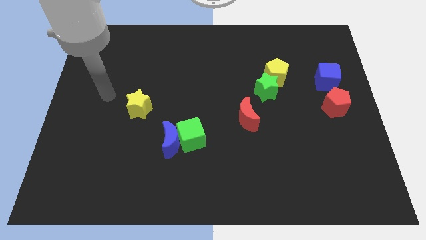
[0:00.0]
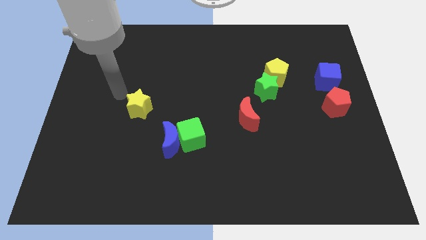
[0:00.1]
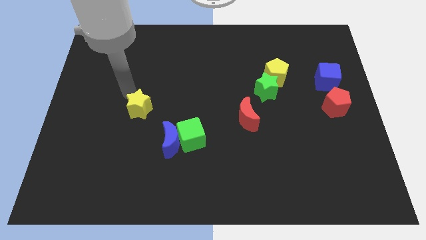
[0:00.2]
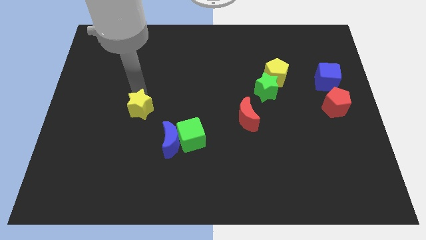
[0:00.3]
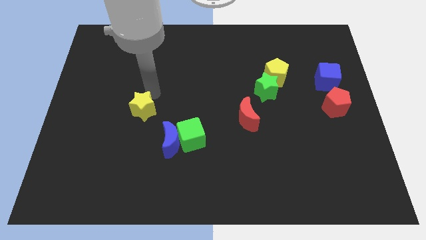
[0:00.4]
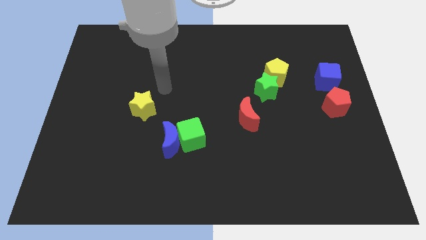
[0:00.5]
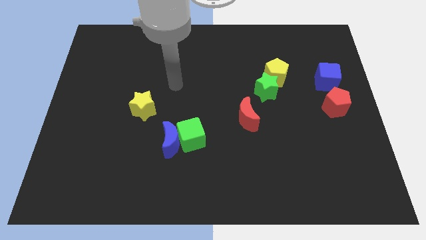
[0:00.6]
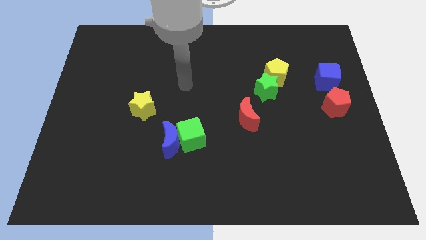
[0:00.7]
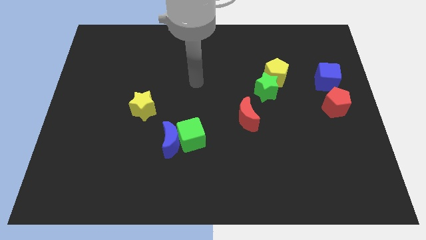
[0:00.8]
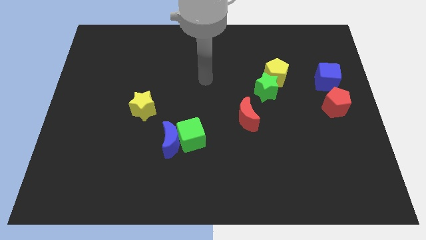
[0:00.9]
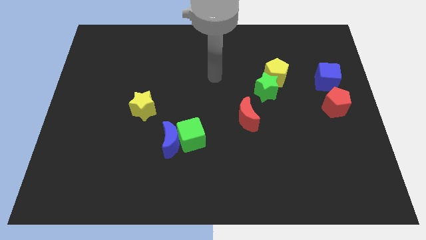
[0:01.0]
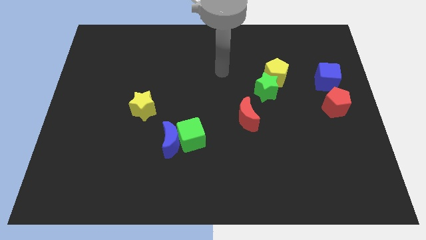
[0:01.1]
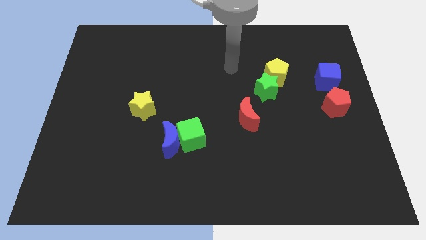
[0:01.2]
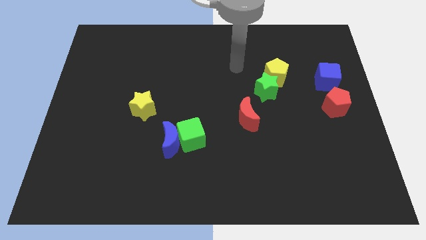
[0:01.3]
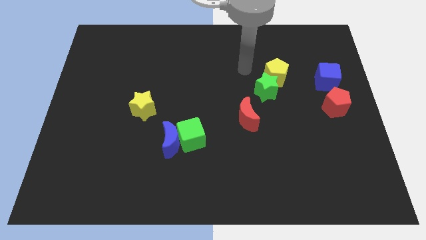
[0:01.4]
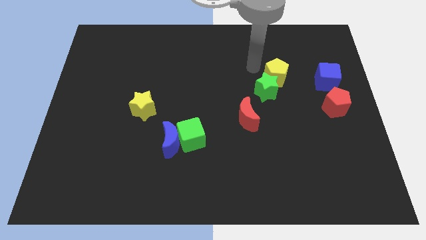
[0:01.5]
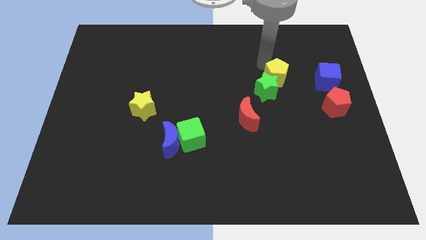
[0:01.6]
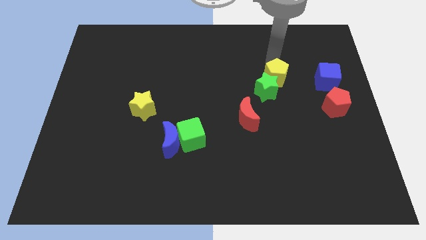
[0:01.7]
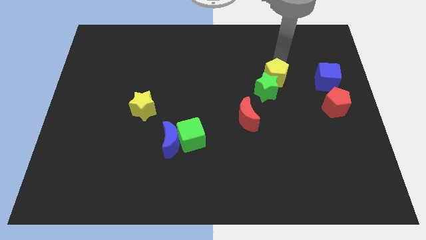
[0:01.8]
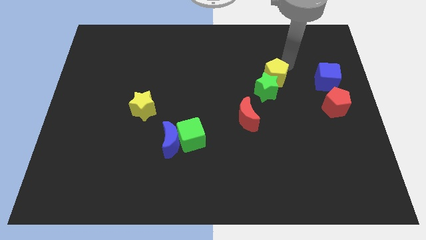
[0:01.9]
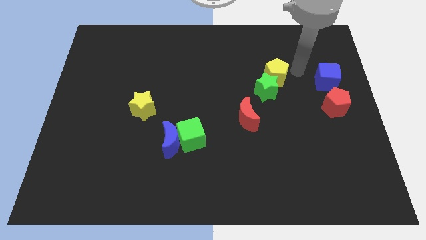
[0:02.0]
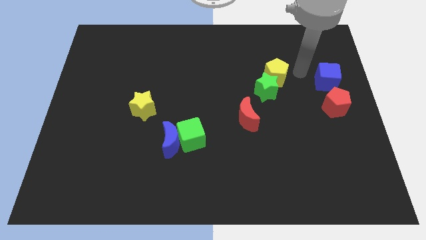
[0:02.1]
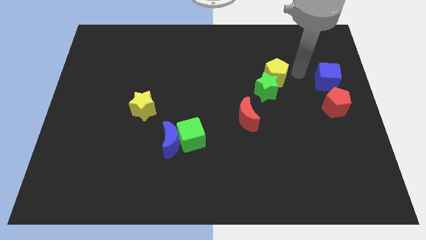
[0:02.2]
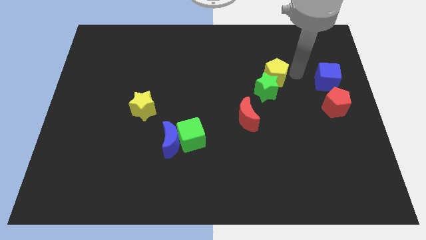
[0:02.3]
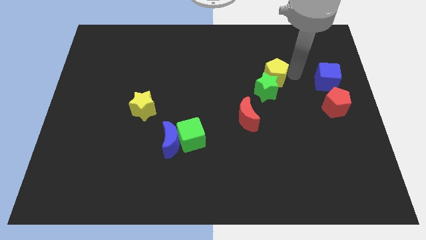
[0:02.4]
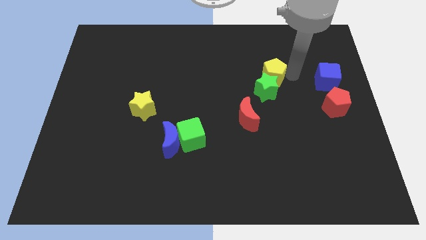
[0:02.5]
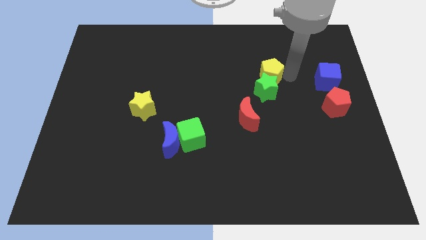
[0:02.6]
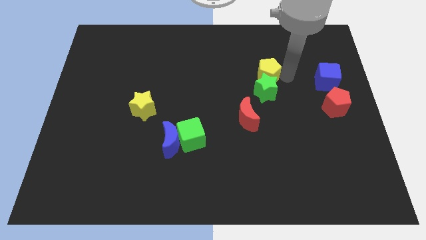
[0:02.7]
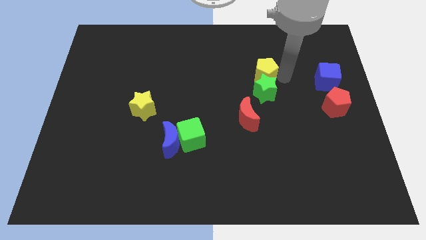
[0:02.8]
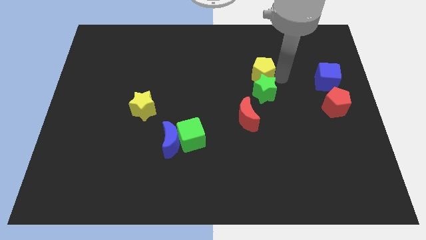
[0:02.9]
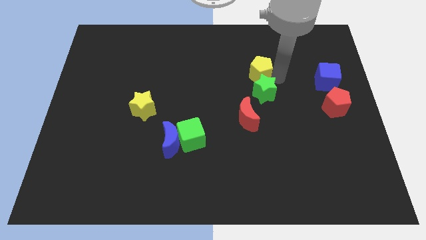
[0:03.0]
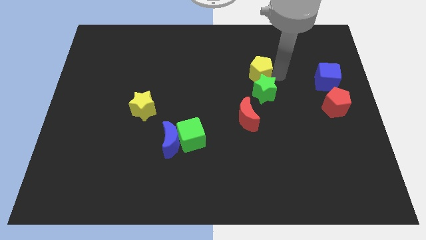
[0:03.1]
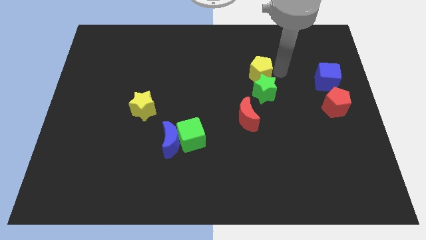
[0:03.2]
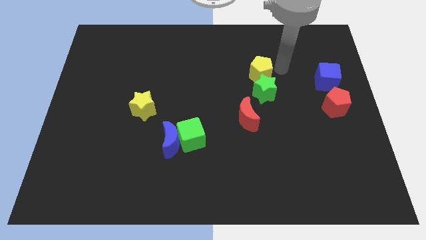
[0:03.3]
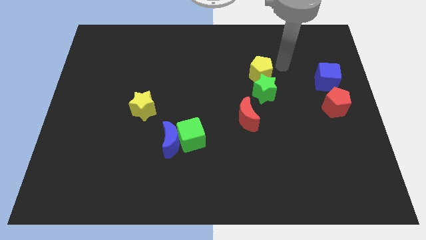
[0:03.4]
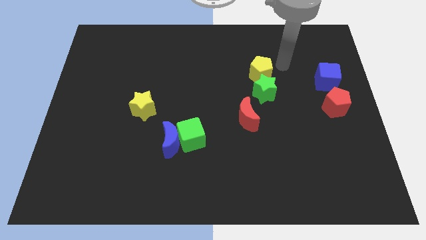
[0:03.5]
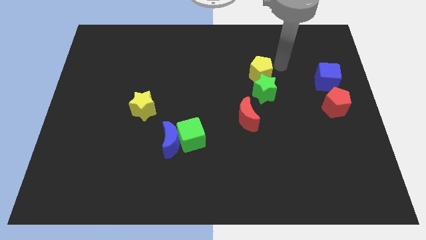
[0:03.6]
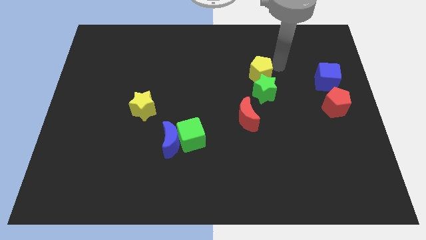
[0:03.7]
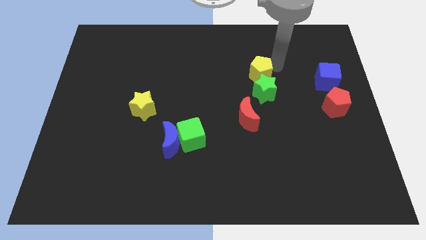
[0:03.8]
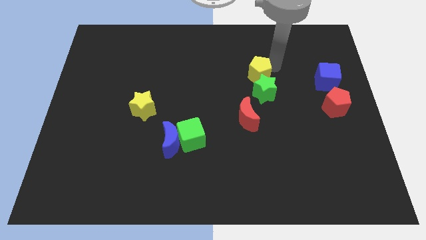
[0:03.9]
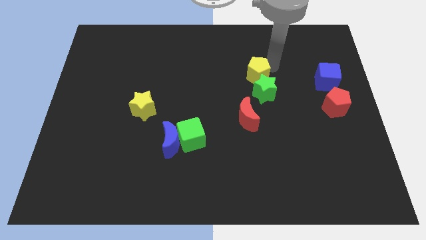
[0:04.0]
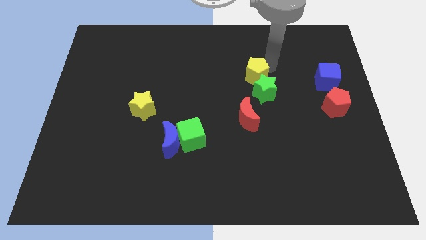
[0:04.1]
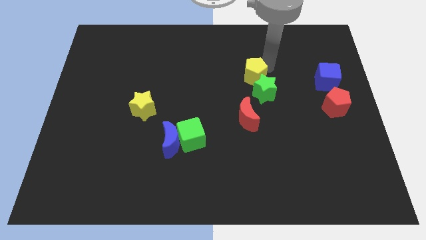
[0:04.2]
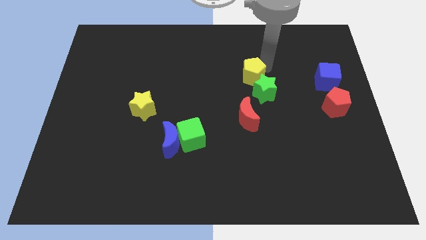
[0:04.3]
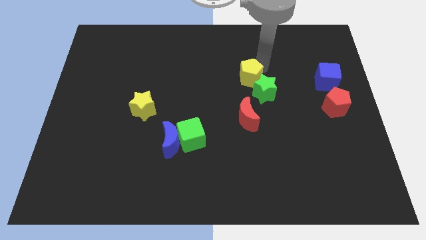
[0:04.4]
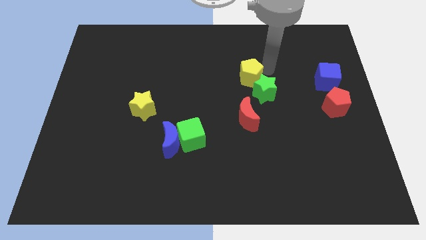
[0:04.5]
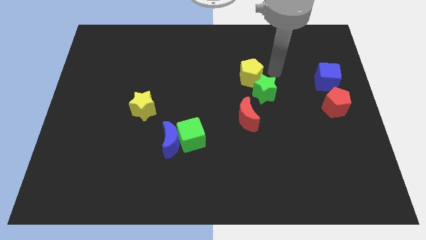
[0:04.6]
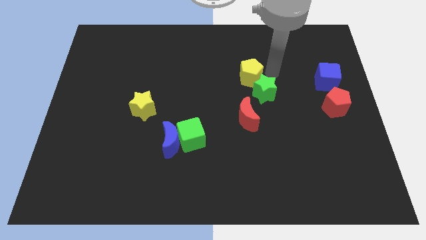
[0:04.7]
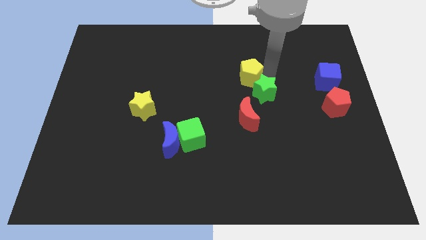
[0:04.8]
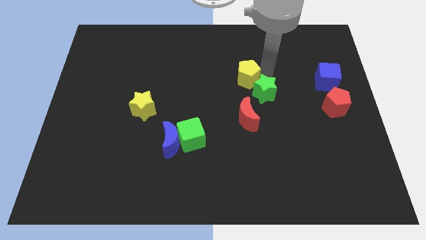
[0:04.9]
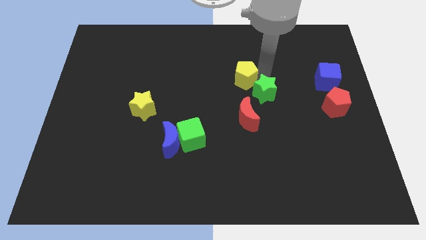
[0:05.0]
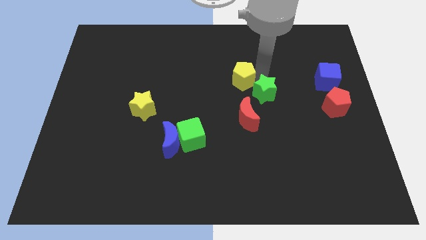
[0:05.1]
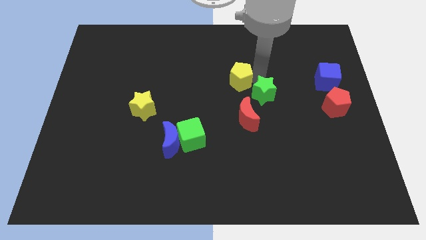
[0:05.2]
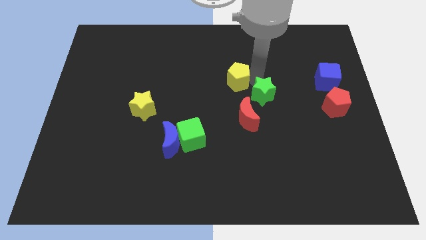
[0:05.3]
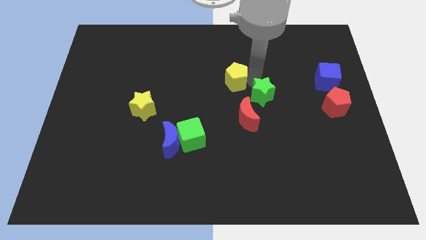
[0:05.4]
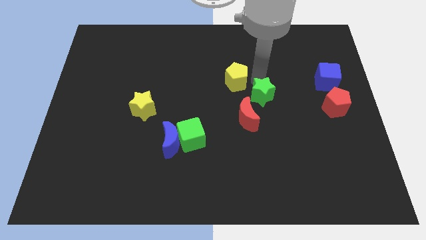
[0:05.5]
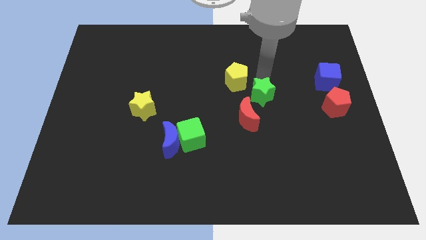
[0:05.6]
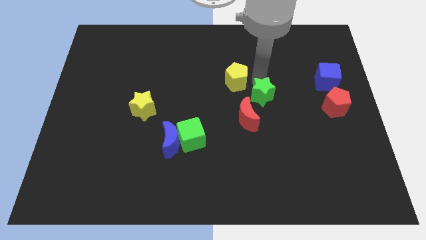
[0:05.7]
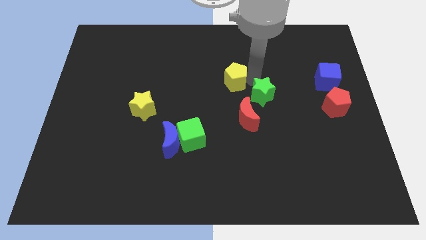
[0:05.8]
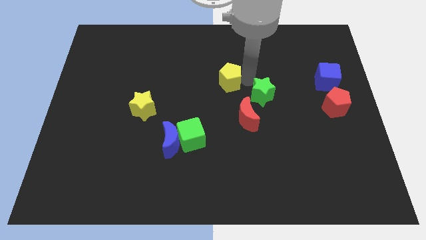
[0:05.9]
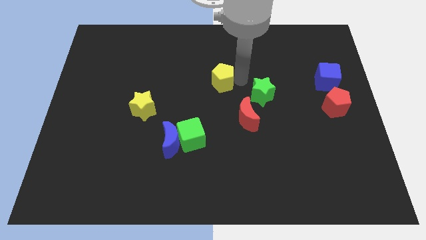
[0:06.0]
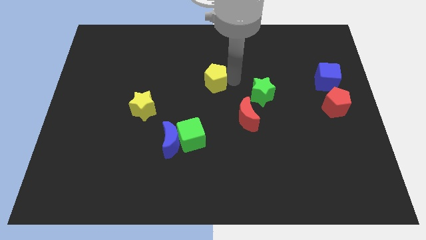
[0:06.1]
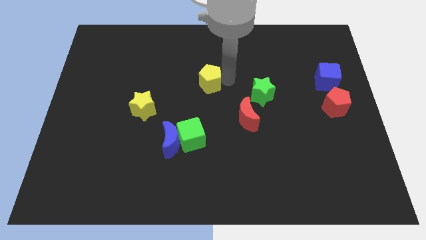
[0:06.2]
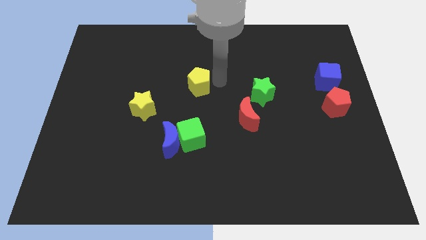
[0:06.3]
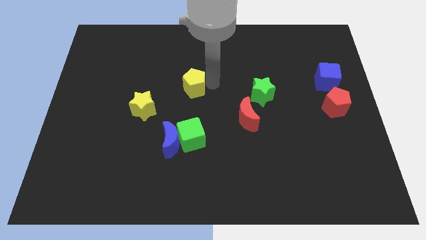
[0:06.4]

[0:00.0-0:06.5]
slide the yellow pentagon left

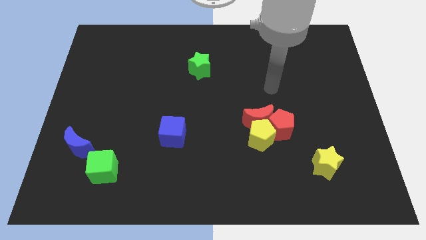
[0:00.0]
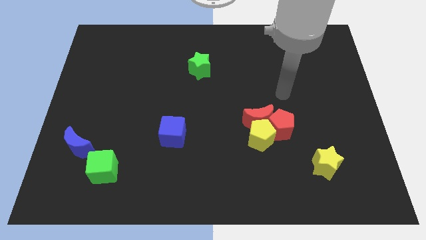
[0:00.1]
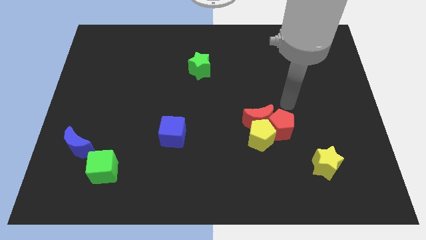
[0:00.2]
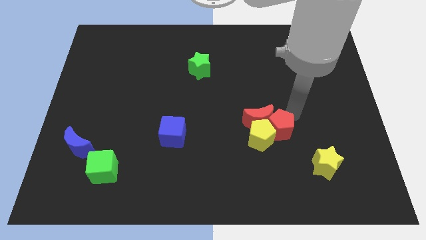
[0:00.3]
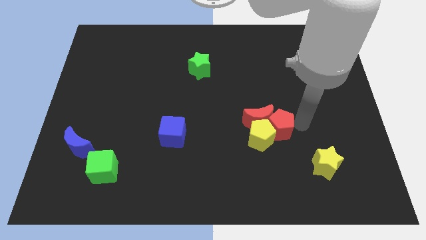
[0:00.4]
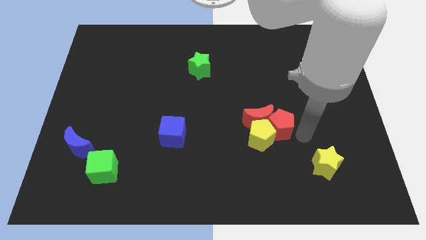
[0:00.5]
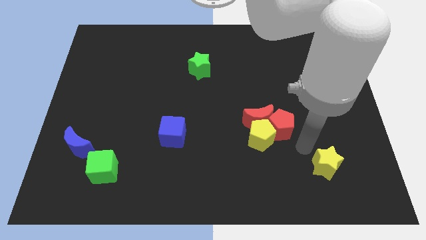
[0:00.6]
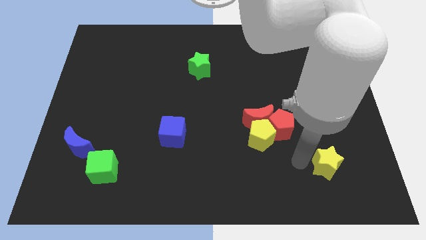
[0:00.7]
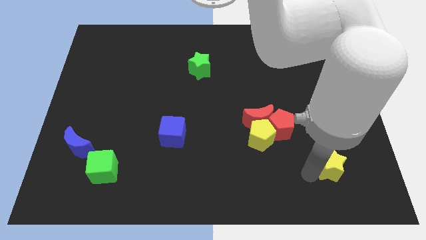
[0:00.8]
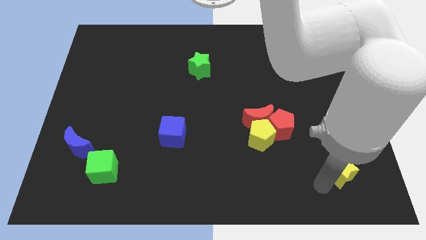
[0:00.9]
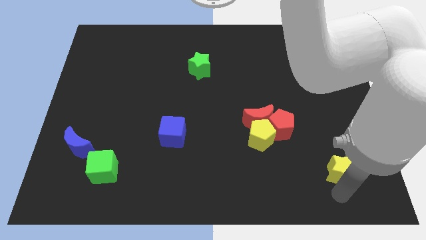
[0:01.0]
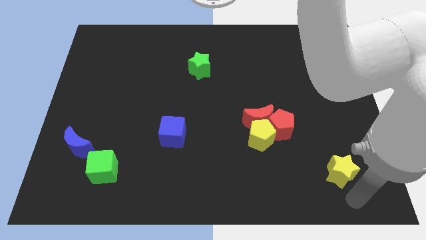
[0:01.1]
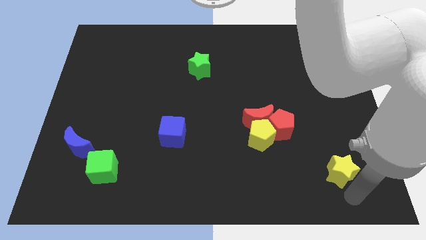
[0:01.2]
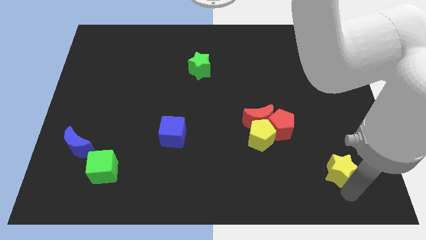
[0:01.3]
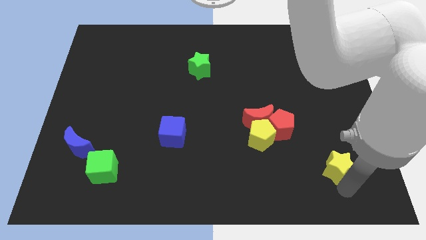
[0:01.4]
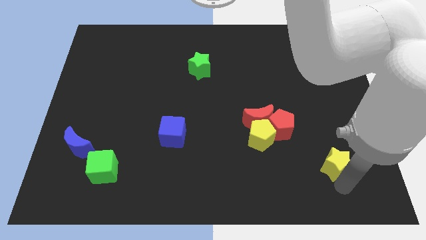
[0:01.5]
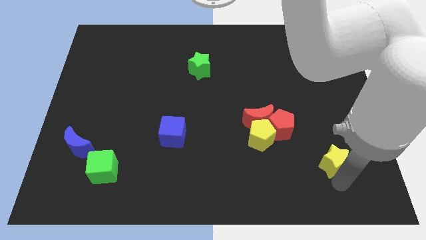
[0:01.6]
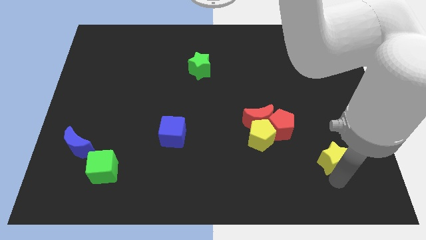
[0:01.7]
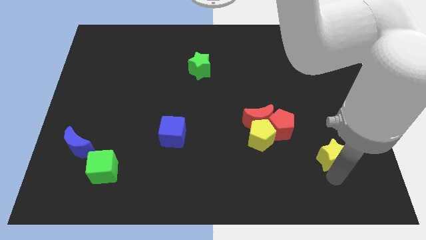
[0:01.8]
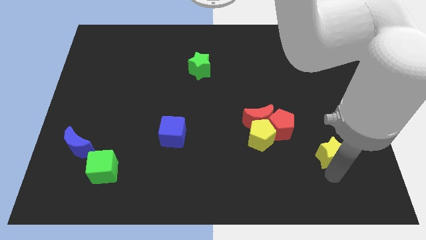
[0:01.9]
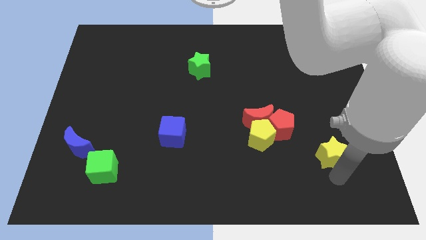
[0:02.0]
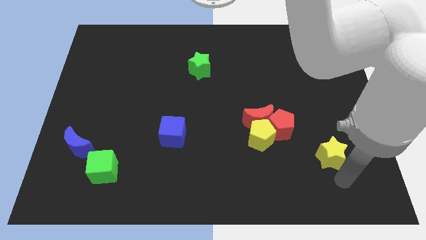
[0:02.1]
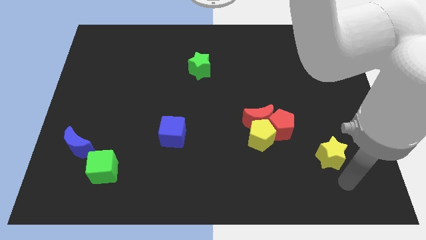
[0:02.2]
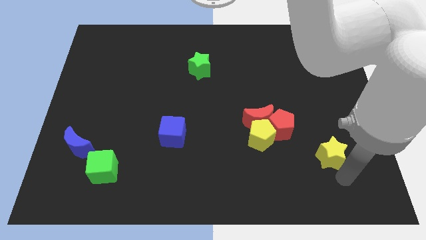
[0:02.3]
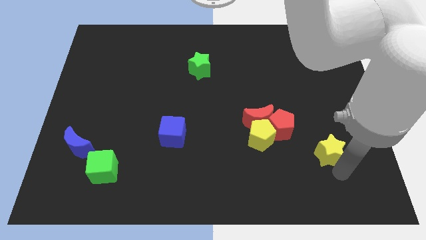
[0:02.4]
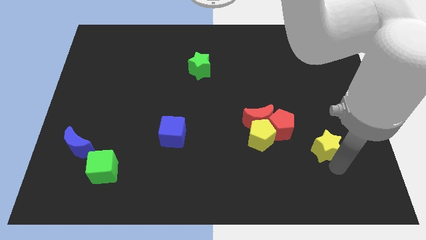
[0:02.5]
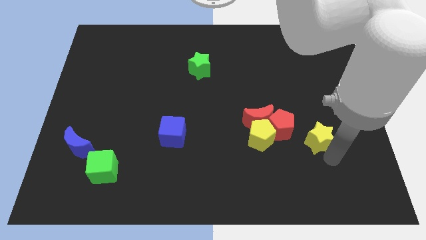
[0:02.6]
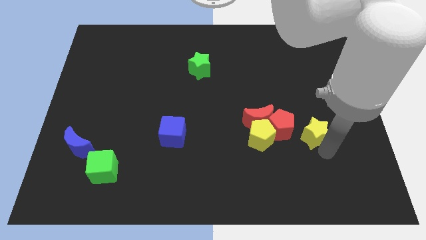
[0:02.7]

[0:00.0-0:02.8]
slide the yellow star a little bit upwards
